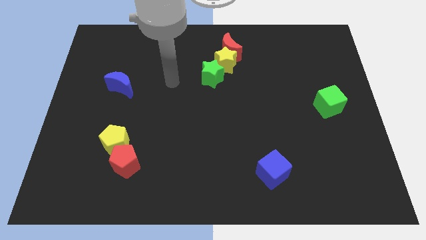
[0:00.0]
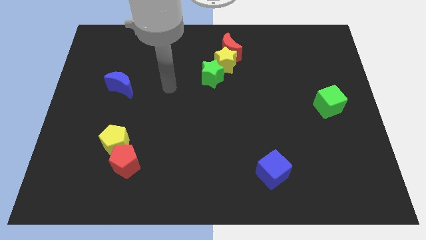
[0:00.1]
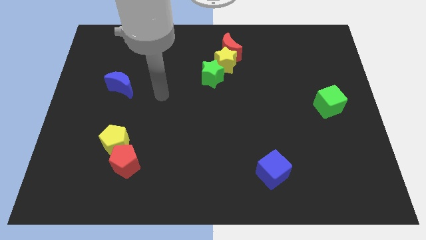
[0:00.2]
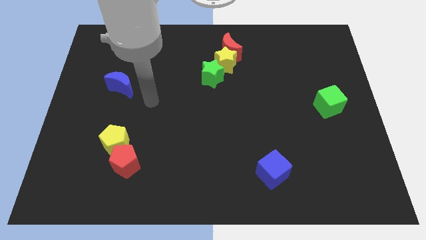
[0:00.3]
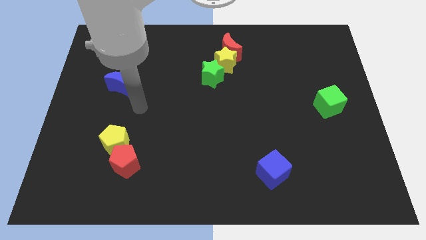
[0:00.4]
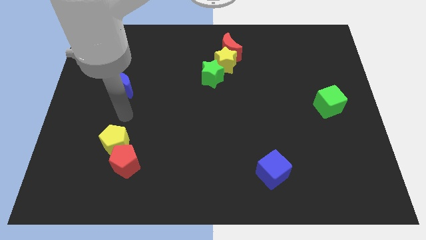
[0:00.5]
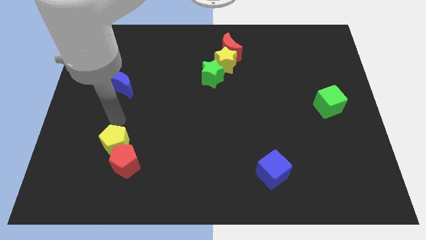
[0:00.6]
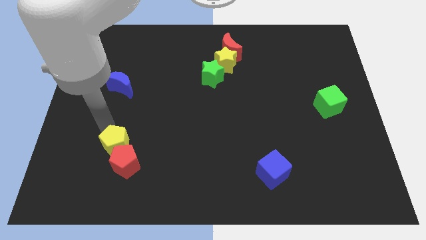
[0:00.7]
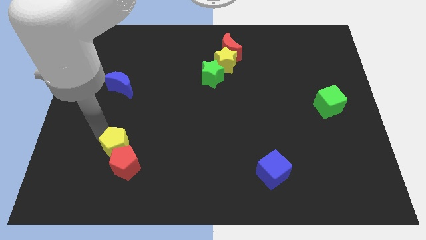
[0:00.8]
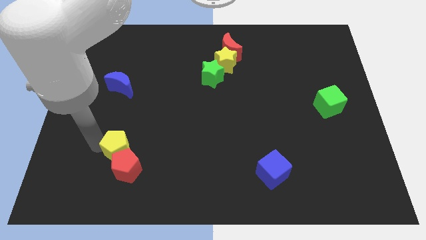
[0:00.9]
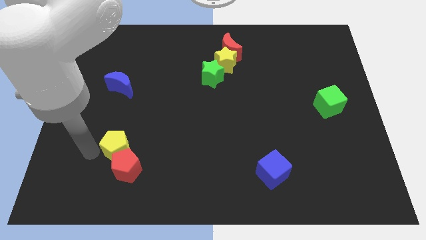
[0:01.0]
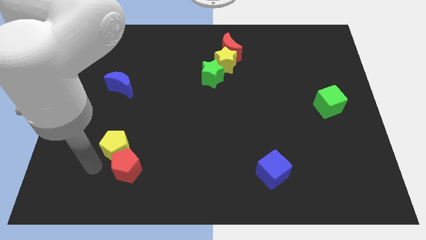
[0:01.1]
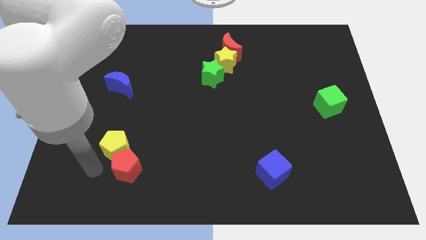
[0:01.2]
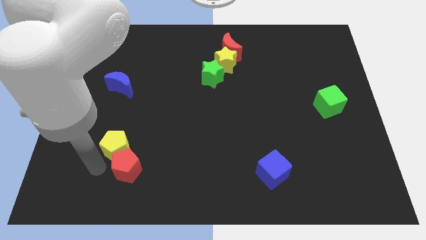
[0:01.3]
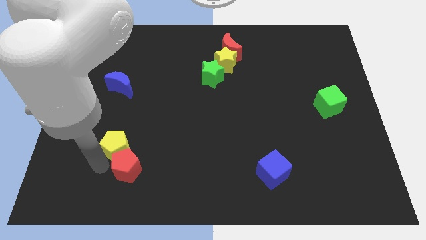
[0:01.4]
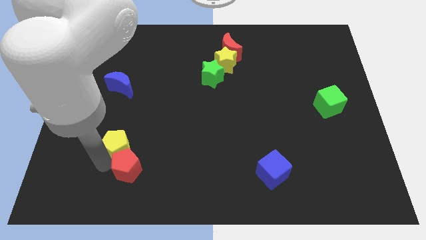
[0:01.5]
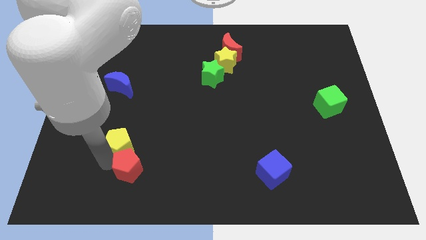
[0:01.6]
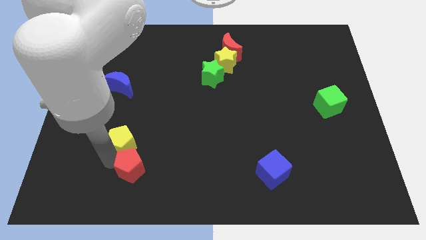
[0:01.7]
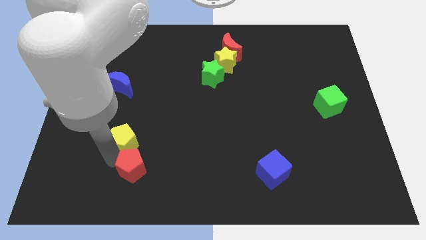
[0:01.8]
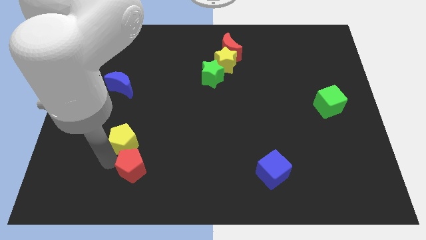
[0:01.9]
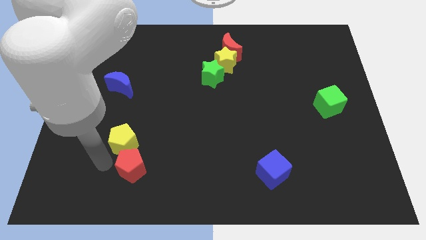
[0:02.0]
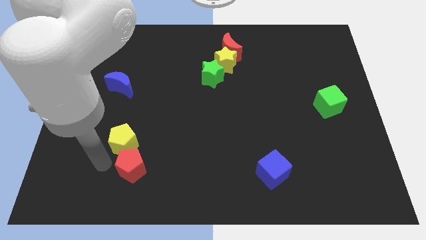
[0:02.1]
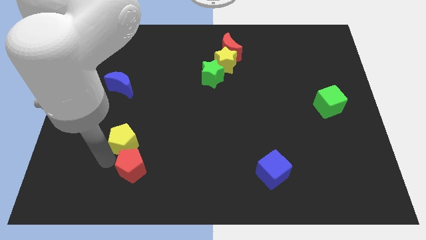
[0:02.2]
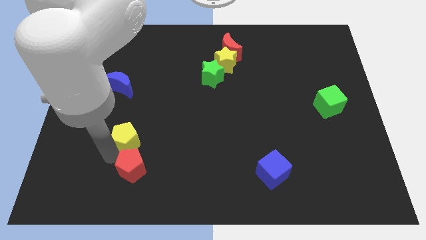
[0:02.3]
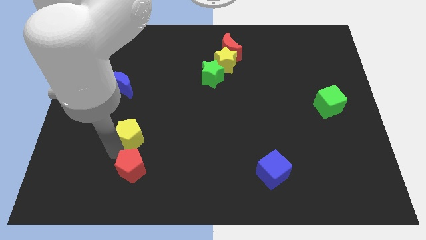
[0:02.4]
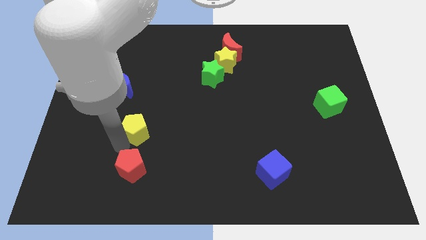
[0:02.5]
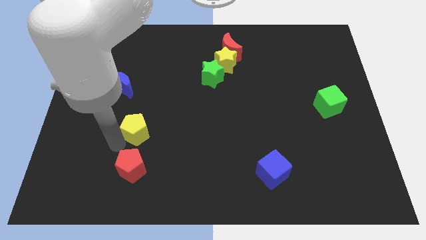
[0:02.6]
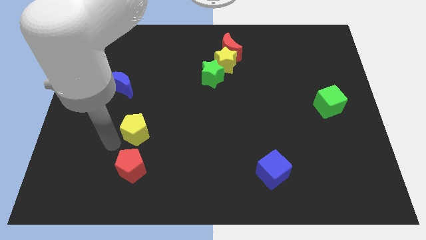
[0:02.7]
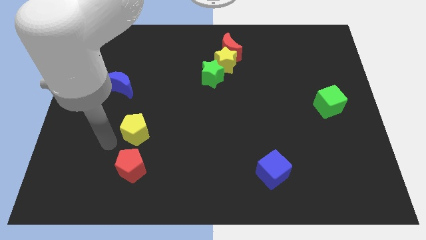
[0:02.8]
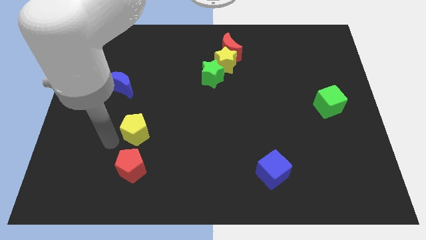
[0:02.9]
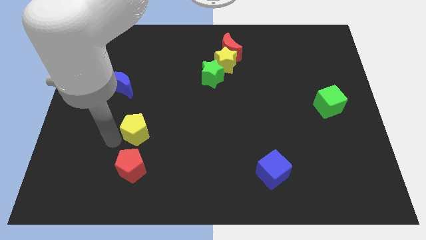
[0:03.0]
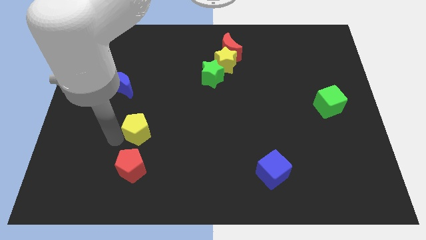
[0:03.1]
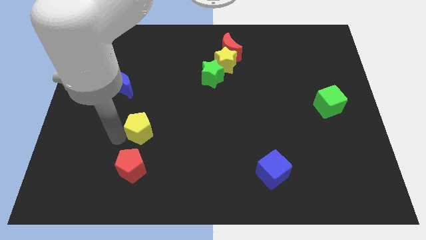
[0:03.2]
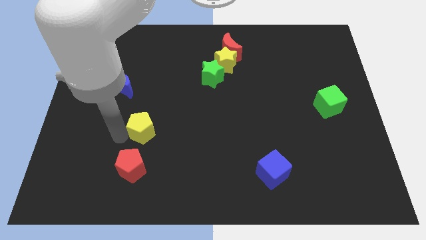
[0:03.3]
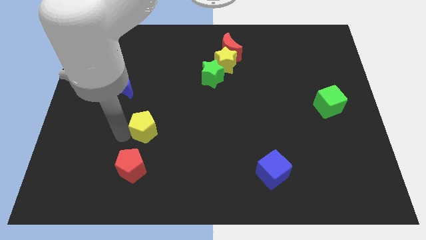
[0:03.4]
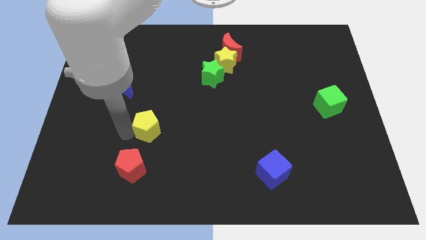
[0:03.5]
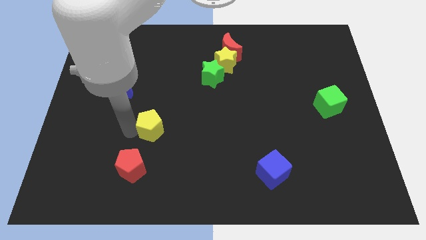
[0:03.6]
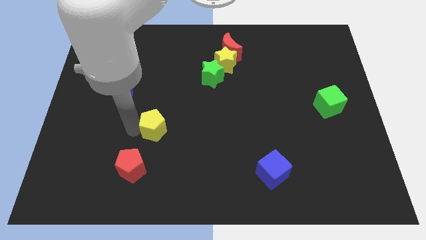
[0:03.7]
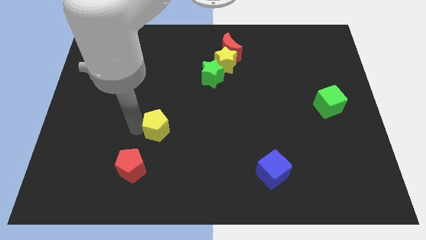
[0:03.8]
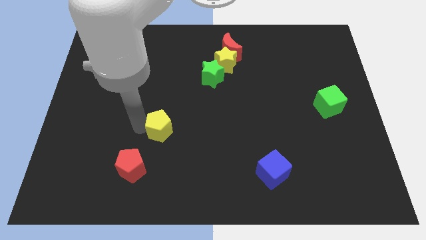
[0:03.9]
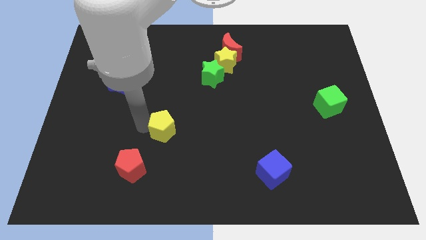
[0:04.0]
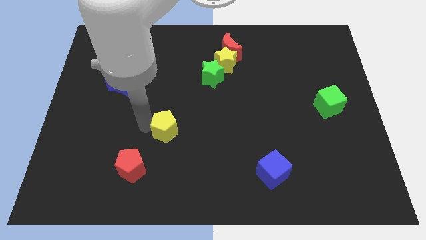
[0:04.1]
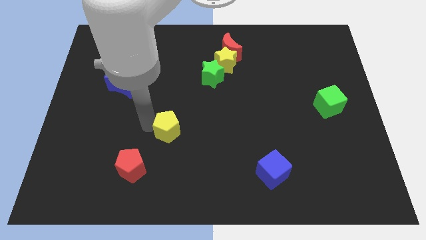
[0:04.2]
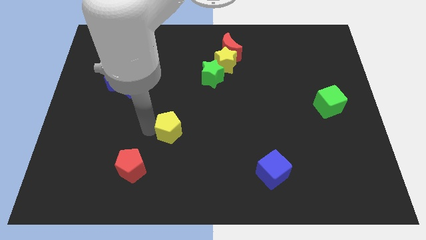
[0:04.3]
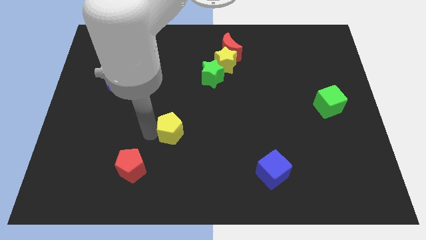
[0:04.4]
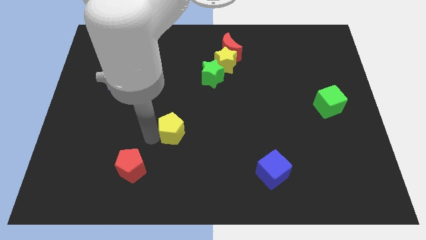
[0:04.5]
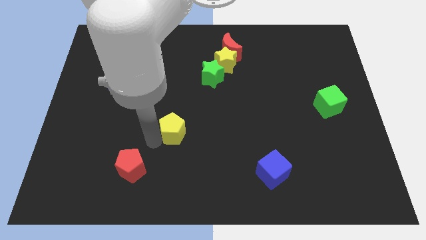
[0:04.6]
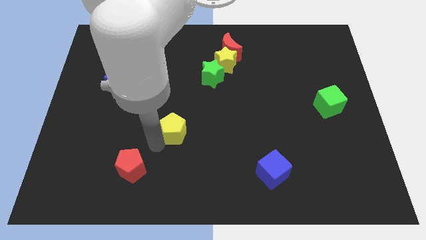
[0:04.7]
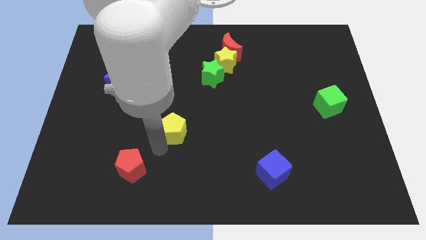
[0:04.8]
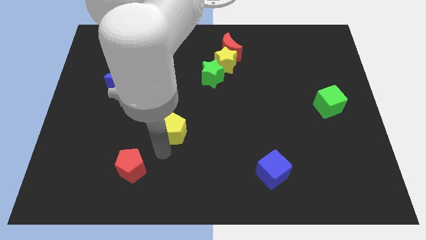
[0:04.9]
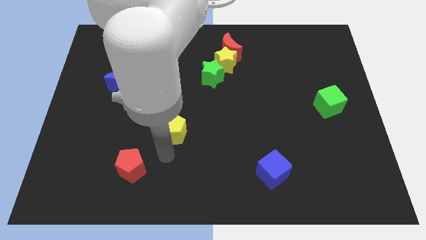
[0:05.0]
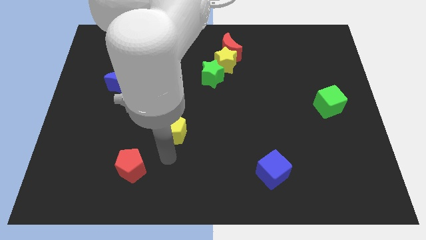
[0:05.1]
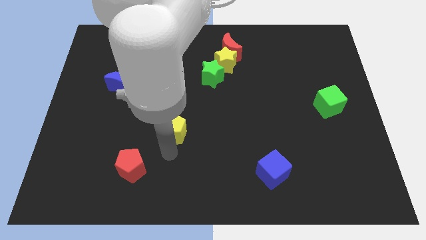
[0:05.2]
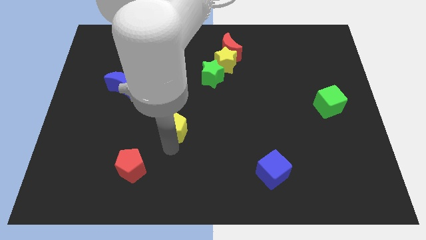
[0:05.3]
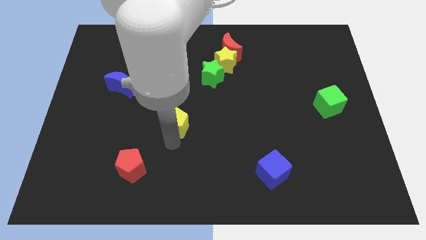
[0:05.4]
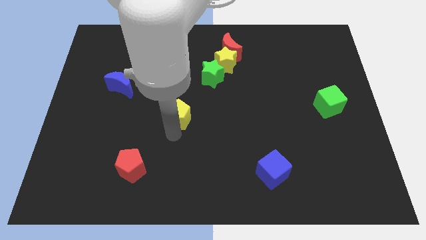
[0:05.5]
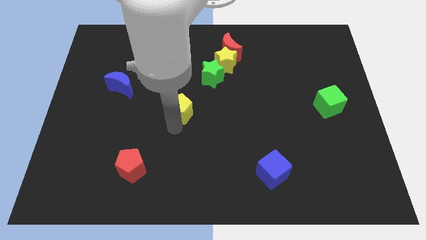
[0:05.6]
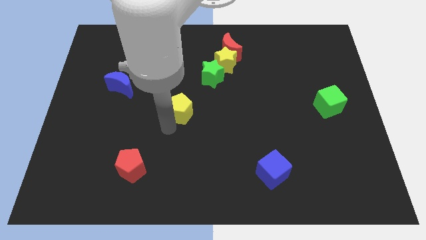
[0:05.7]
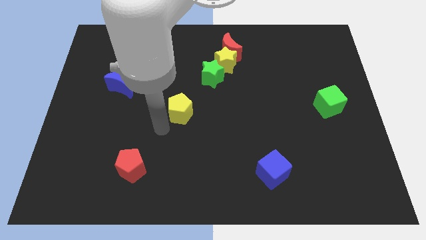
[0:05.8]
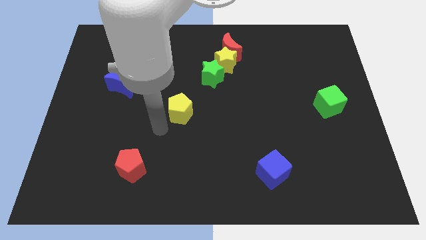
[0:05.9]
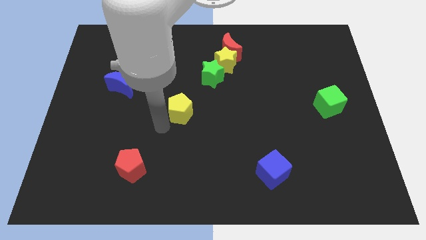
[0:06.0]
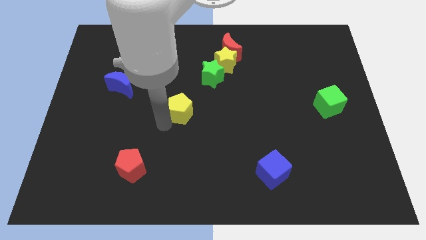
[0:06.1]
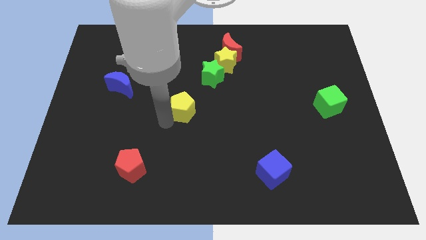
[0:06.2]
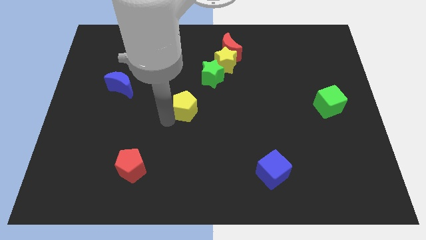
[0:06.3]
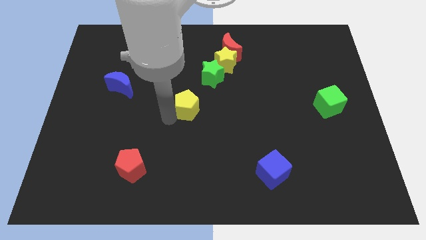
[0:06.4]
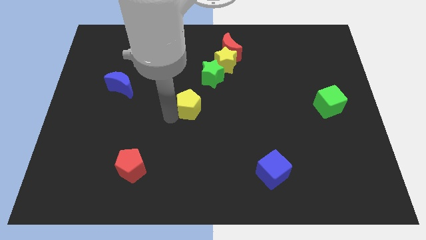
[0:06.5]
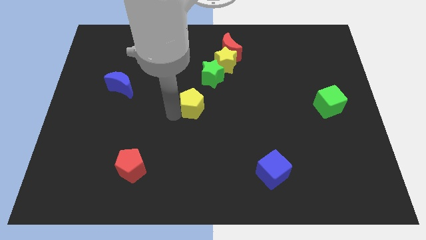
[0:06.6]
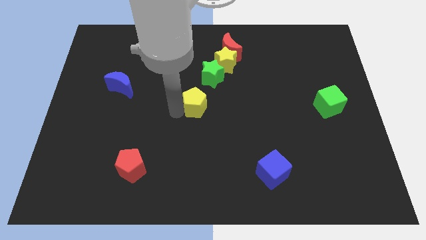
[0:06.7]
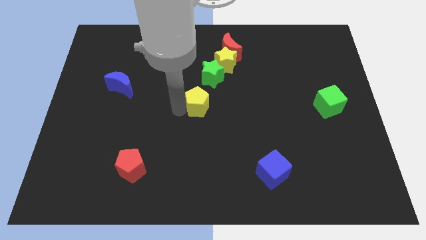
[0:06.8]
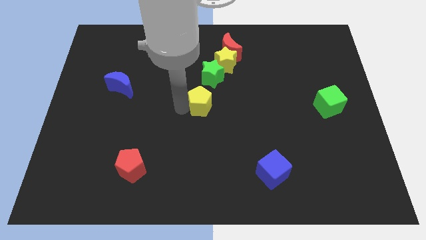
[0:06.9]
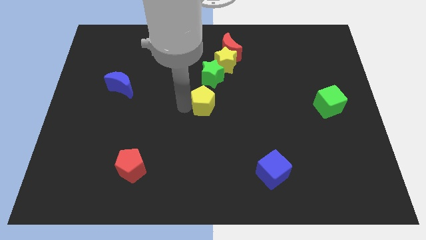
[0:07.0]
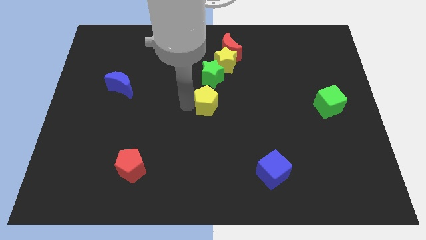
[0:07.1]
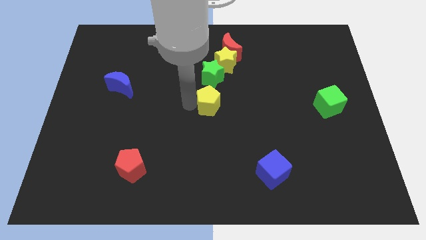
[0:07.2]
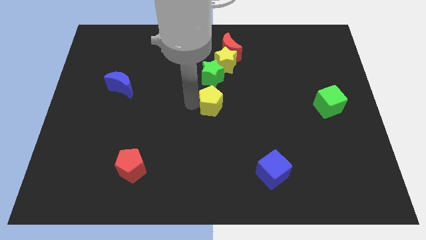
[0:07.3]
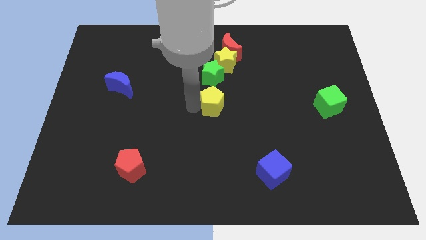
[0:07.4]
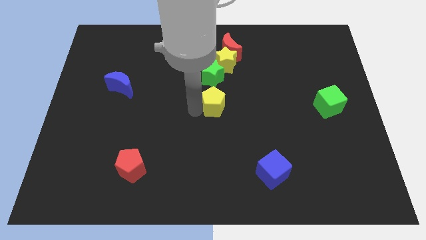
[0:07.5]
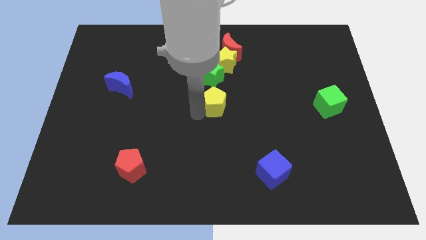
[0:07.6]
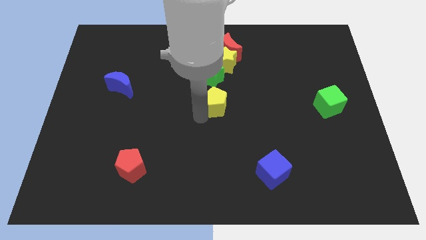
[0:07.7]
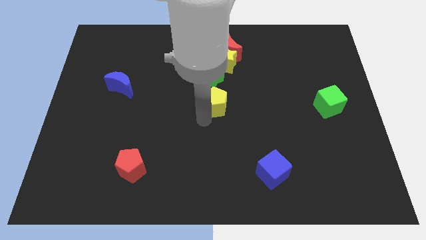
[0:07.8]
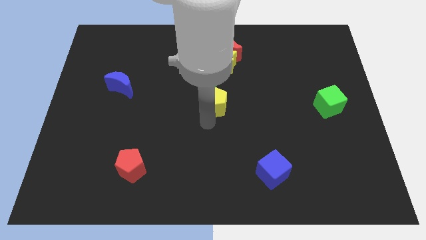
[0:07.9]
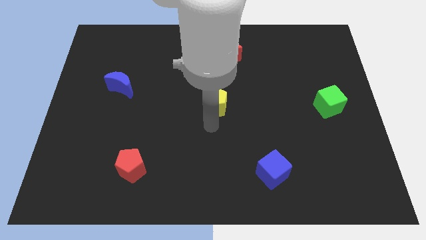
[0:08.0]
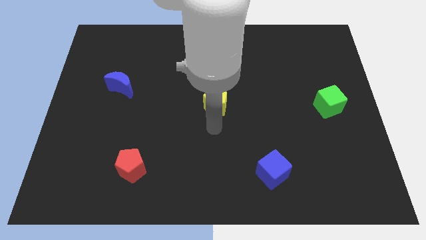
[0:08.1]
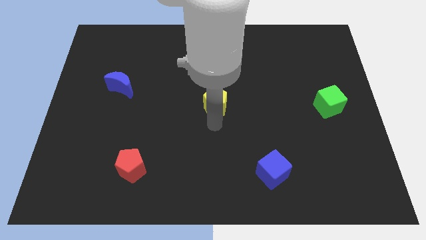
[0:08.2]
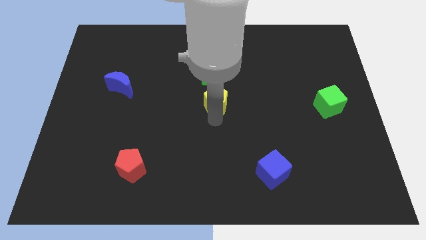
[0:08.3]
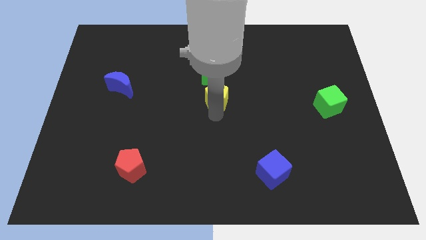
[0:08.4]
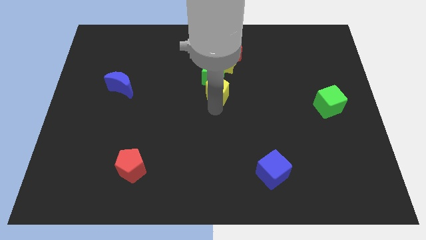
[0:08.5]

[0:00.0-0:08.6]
move the yellow pentagon below the red moon
